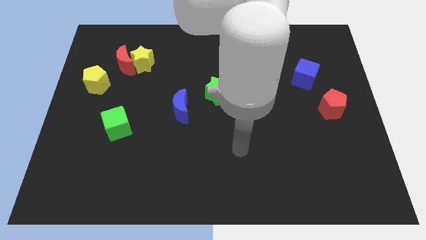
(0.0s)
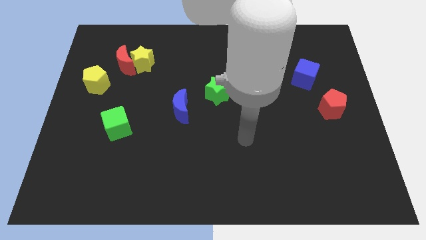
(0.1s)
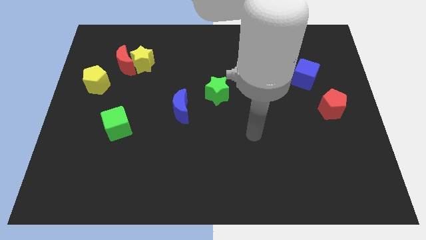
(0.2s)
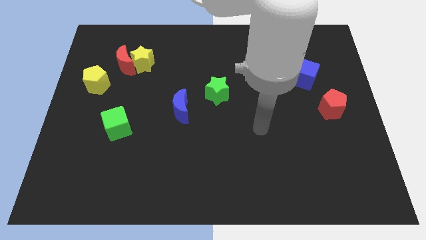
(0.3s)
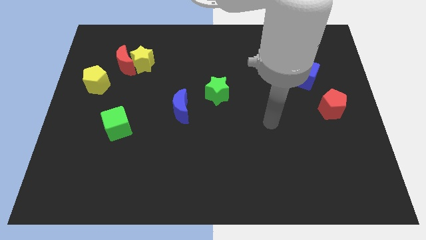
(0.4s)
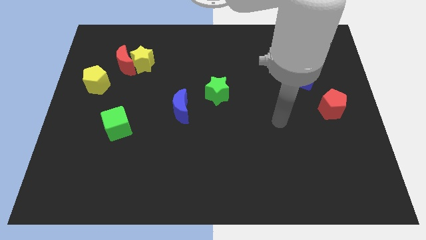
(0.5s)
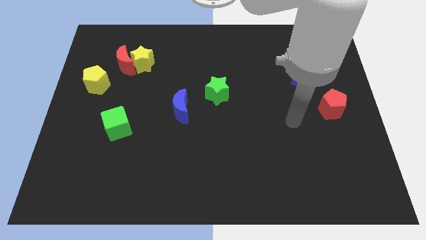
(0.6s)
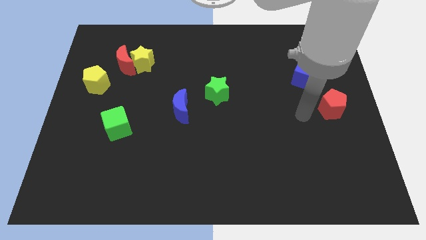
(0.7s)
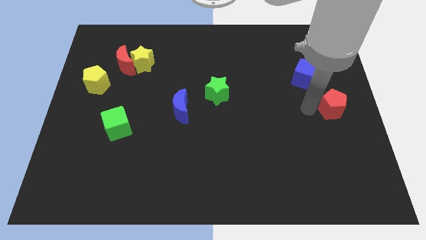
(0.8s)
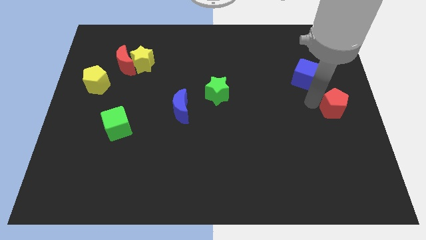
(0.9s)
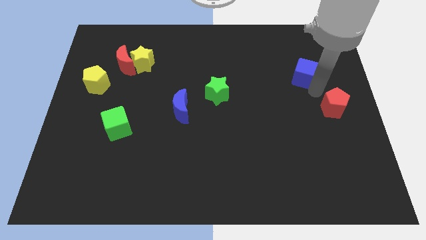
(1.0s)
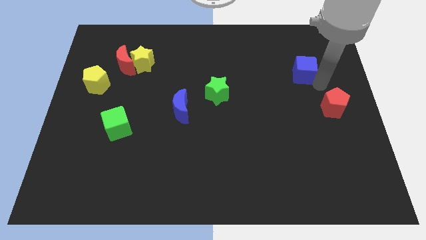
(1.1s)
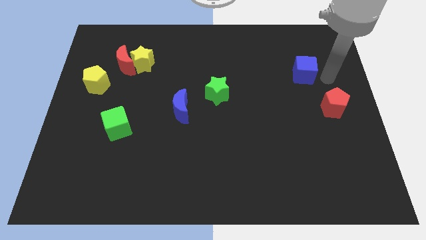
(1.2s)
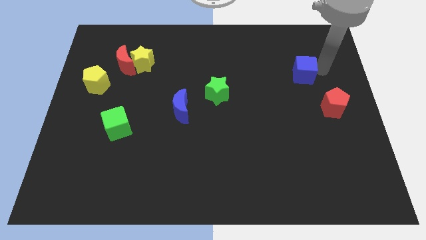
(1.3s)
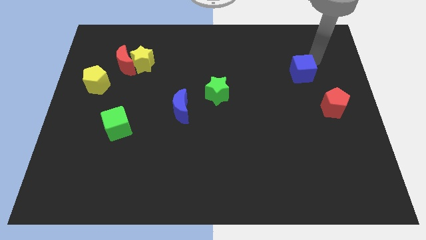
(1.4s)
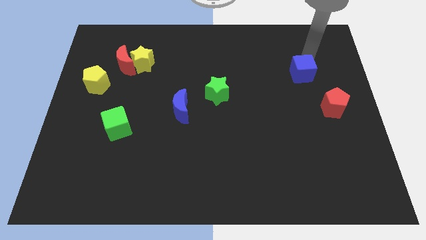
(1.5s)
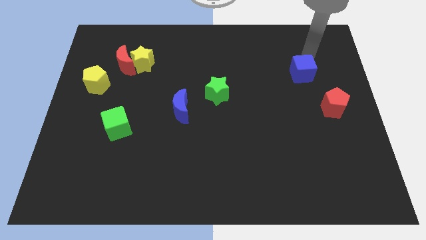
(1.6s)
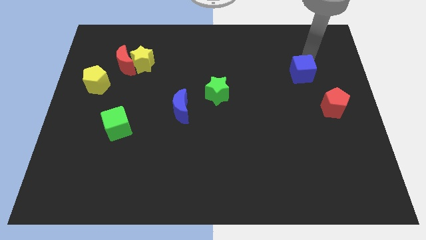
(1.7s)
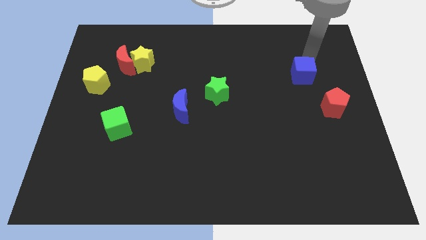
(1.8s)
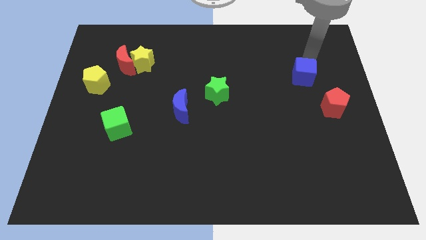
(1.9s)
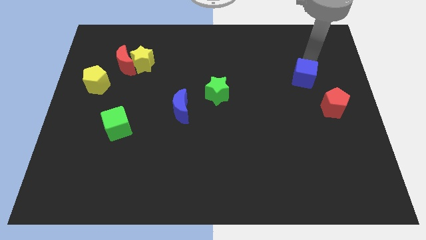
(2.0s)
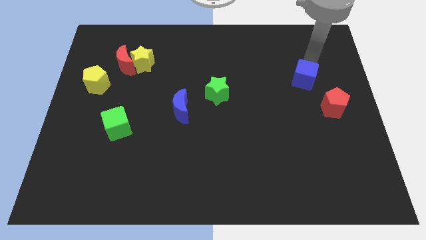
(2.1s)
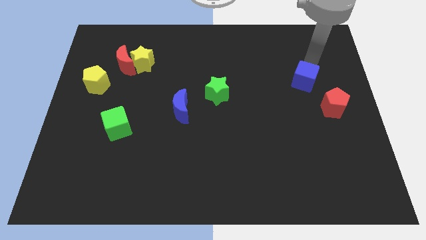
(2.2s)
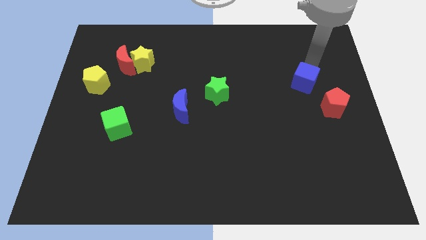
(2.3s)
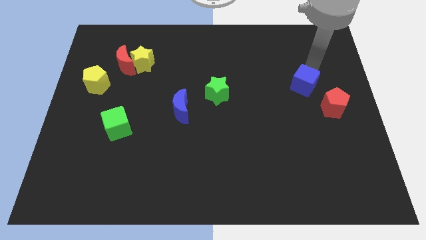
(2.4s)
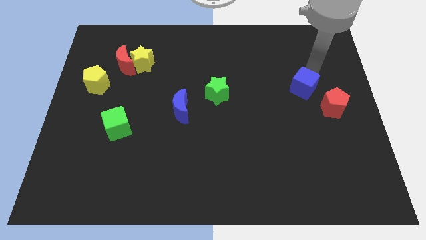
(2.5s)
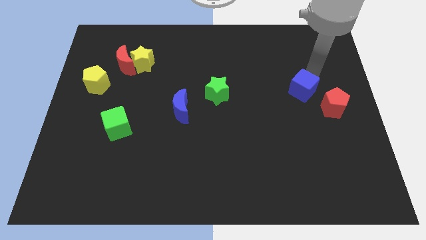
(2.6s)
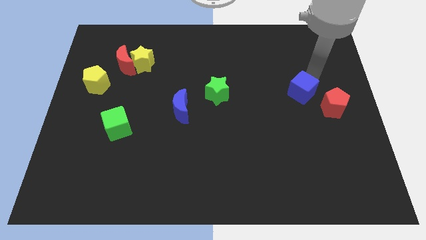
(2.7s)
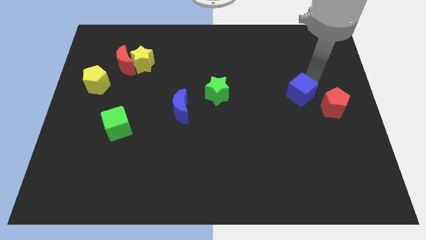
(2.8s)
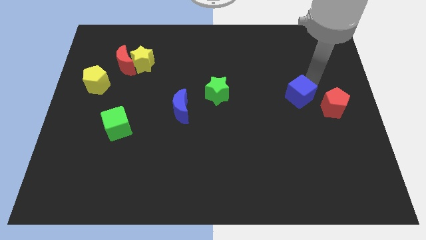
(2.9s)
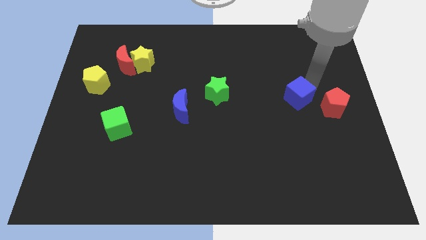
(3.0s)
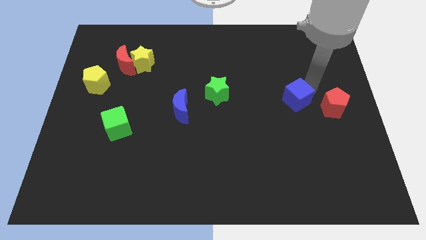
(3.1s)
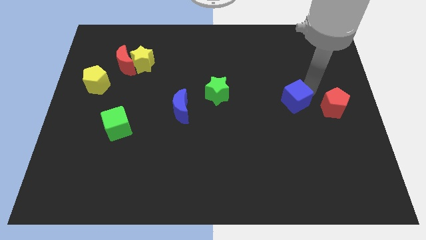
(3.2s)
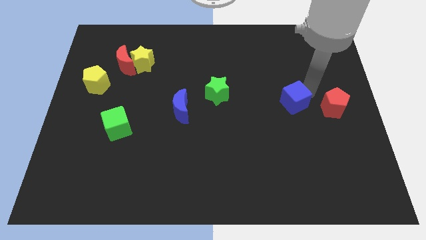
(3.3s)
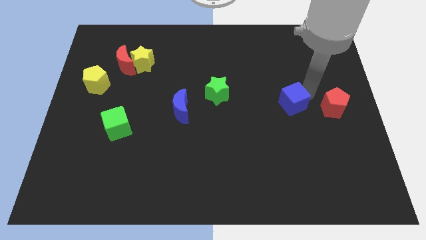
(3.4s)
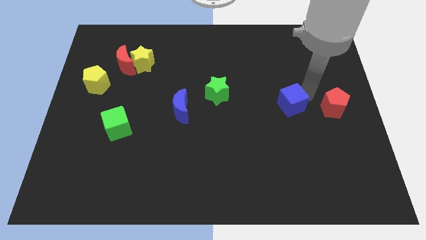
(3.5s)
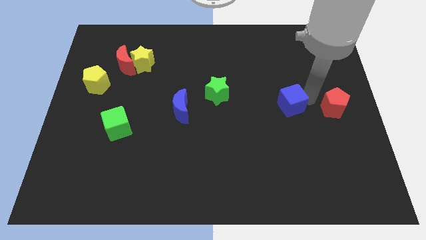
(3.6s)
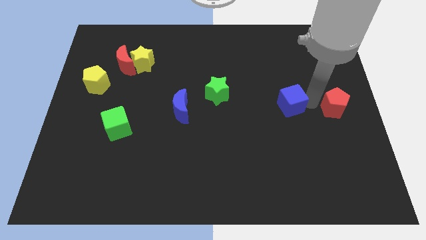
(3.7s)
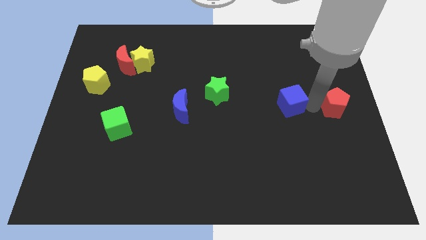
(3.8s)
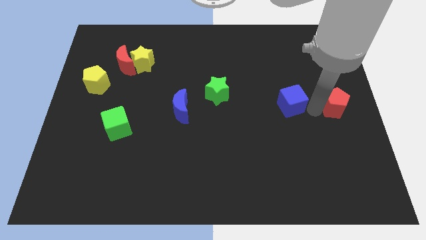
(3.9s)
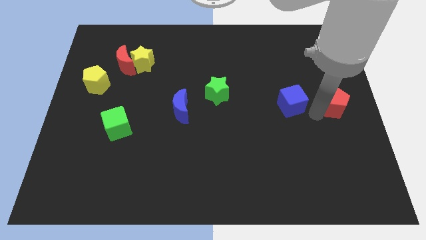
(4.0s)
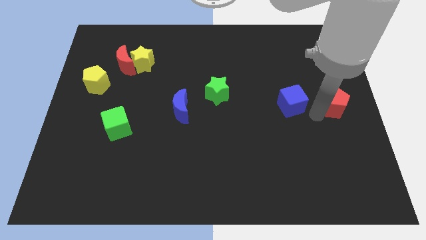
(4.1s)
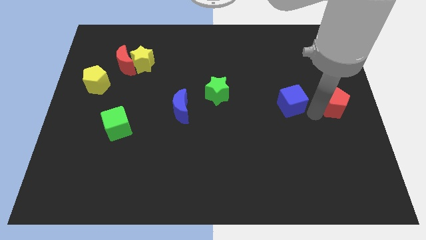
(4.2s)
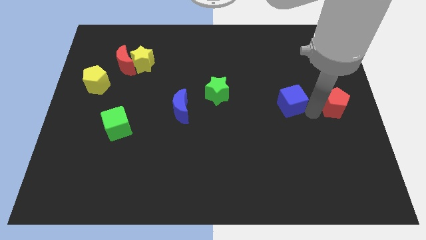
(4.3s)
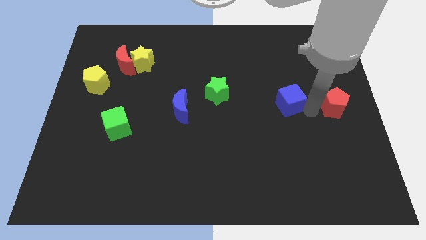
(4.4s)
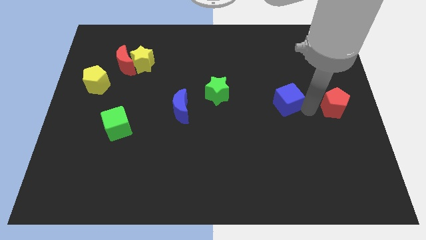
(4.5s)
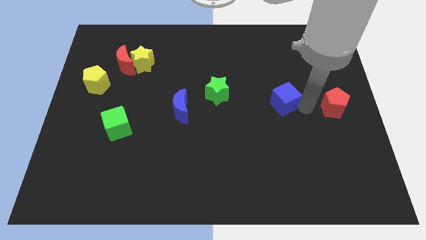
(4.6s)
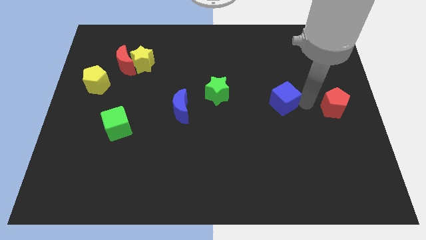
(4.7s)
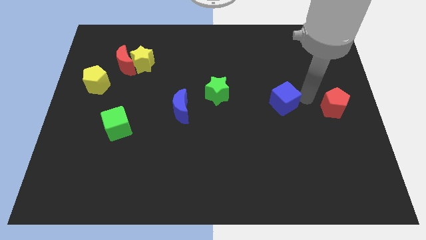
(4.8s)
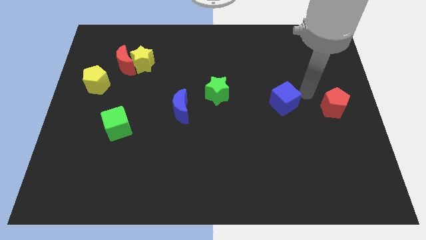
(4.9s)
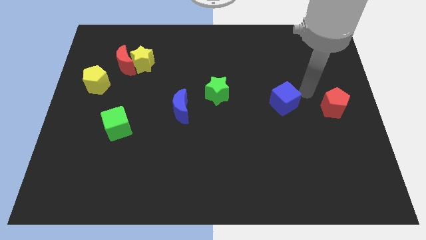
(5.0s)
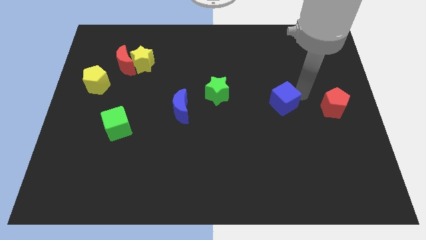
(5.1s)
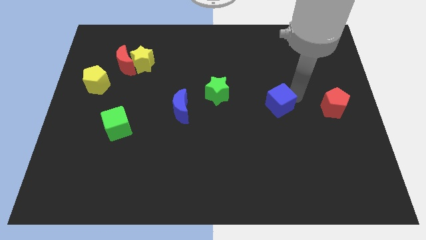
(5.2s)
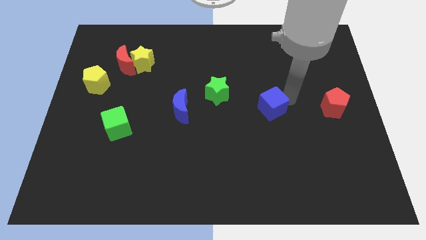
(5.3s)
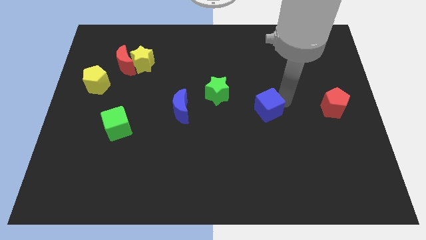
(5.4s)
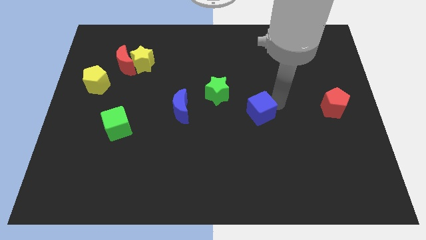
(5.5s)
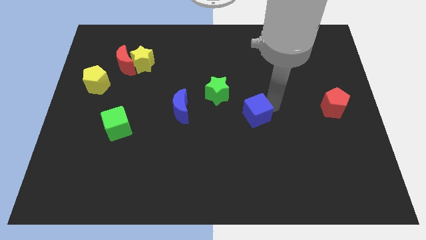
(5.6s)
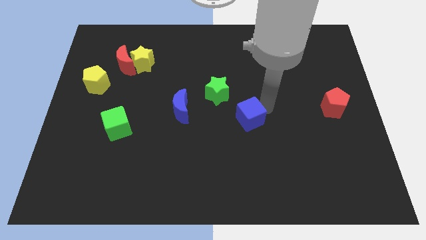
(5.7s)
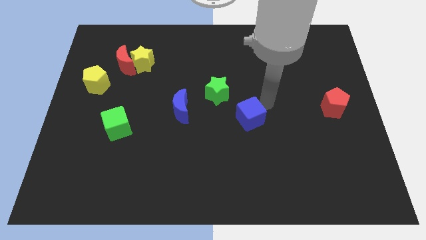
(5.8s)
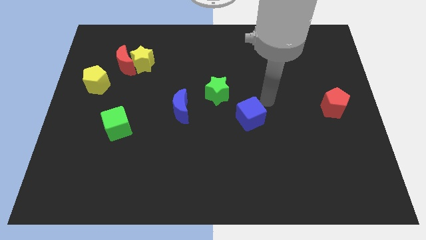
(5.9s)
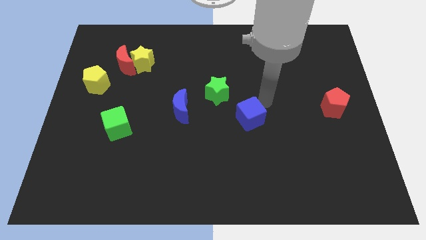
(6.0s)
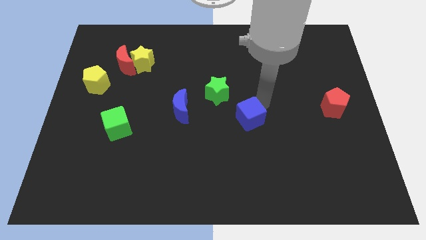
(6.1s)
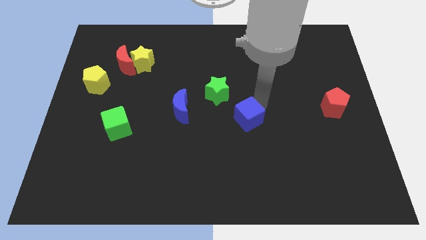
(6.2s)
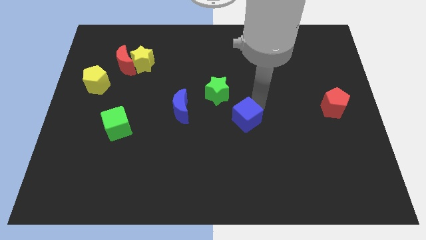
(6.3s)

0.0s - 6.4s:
move the blue cube down and to the left diagonally

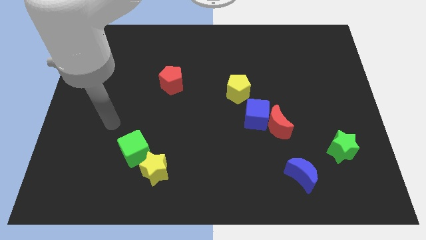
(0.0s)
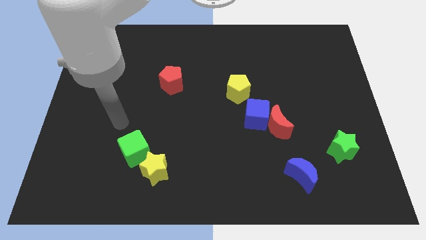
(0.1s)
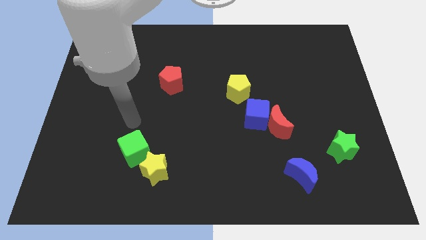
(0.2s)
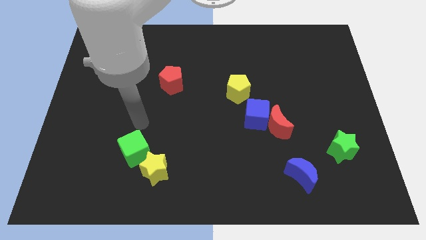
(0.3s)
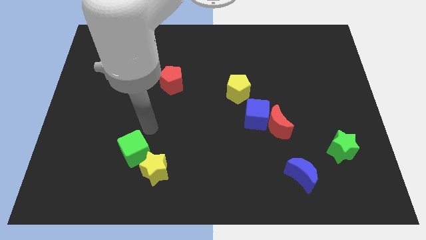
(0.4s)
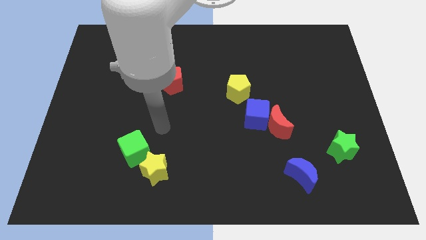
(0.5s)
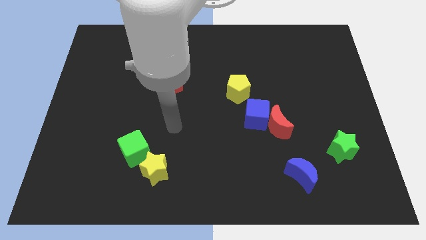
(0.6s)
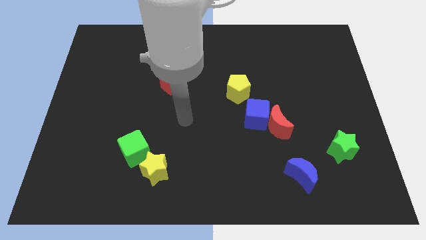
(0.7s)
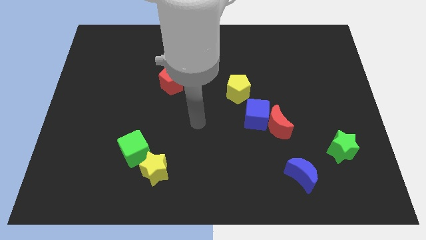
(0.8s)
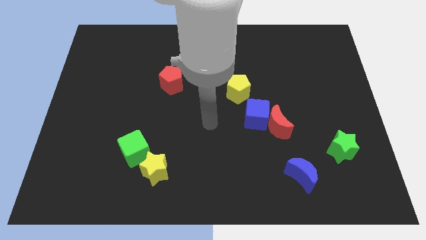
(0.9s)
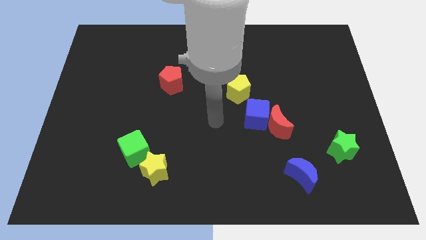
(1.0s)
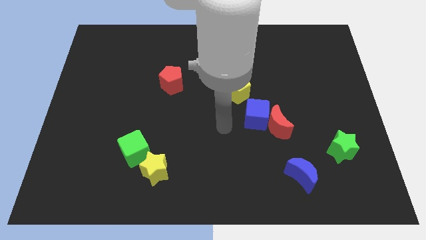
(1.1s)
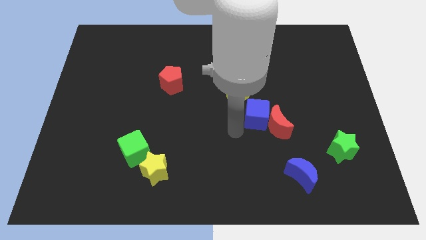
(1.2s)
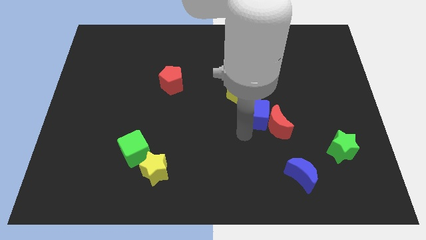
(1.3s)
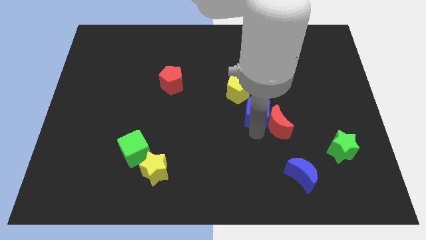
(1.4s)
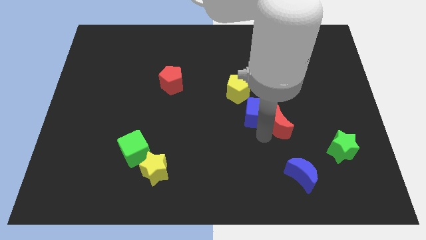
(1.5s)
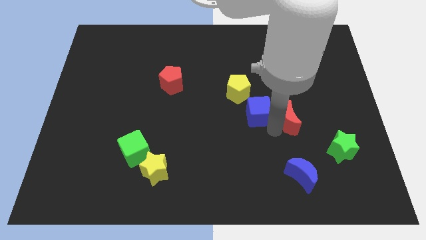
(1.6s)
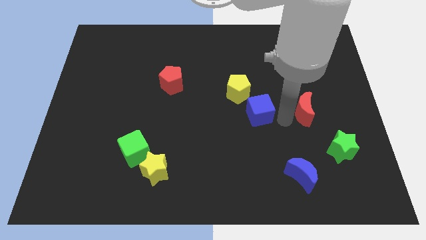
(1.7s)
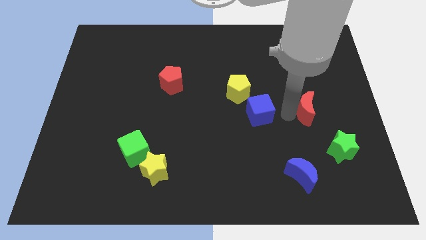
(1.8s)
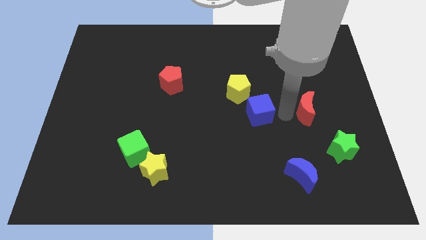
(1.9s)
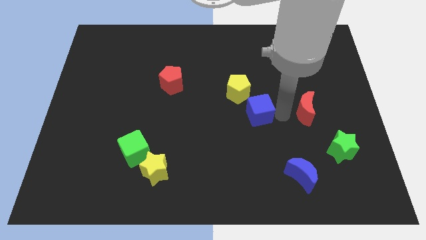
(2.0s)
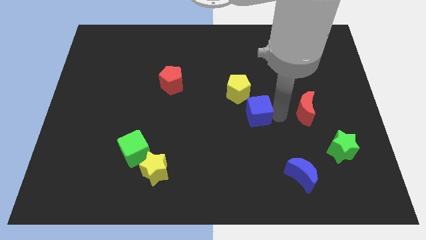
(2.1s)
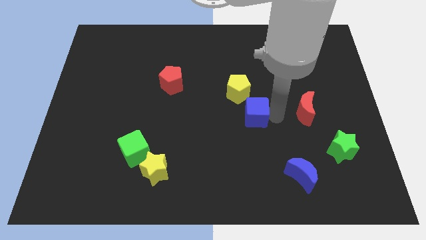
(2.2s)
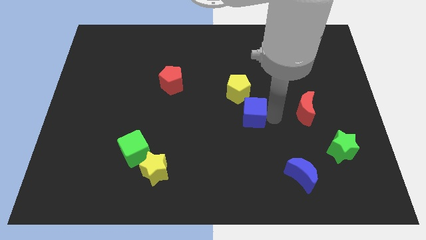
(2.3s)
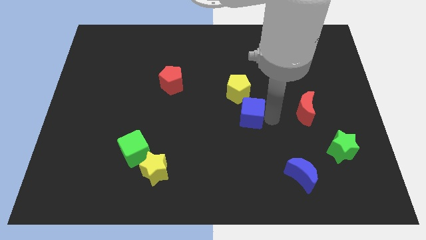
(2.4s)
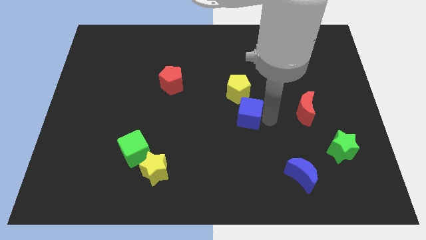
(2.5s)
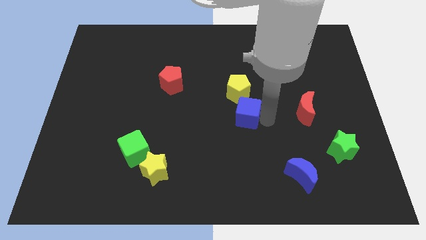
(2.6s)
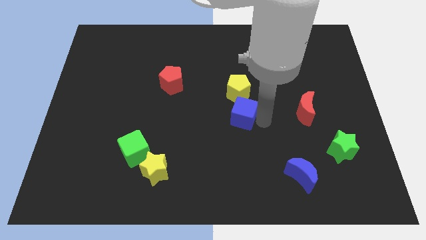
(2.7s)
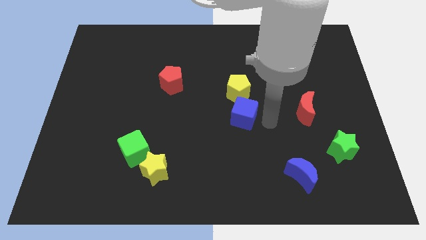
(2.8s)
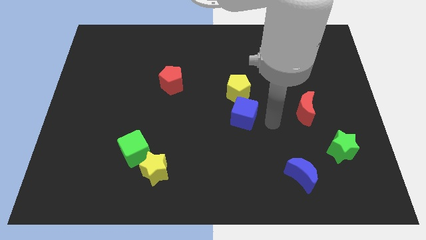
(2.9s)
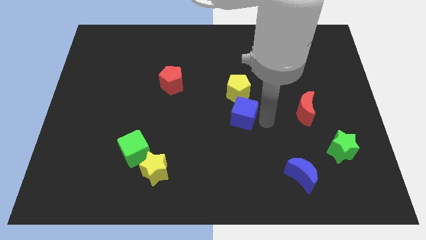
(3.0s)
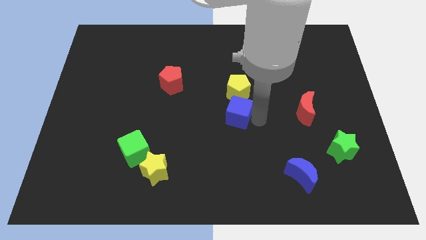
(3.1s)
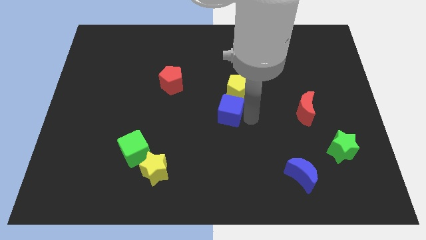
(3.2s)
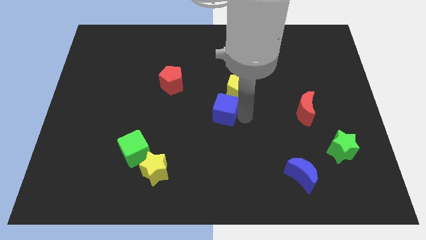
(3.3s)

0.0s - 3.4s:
slightly move the blue cube to the left
